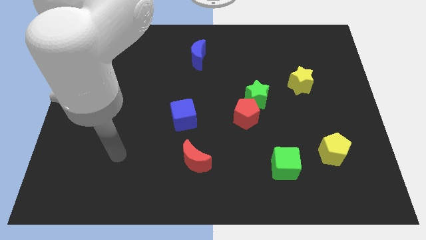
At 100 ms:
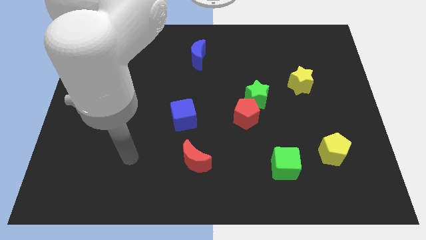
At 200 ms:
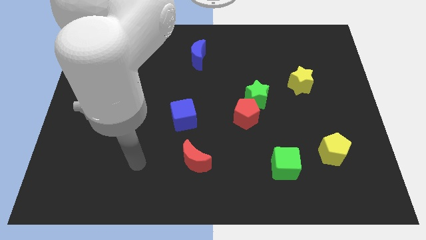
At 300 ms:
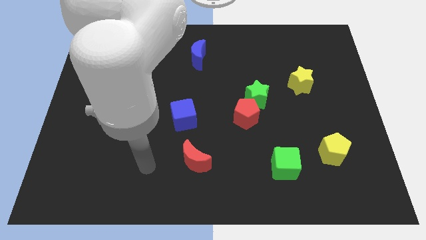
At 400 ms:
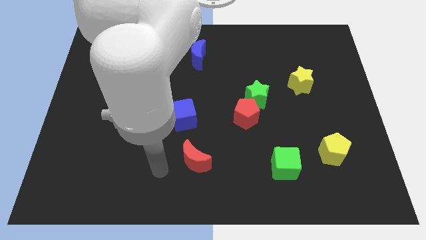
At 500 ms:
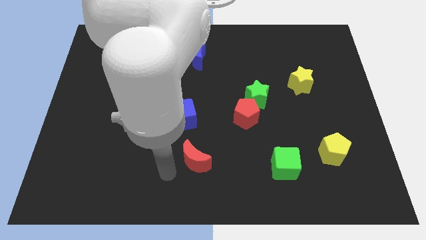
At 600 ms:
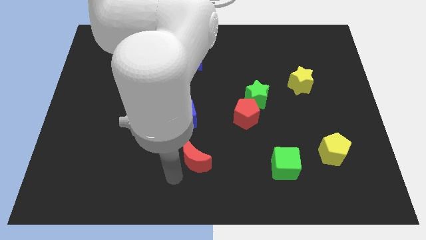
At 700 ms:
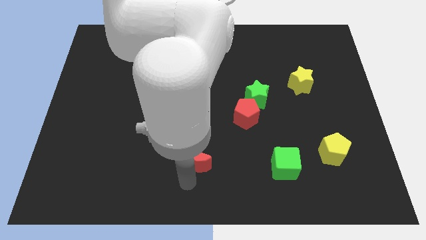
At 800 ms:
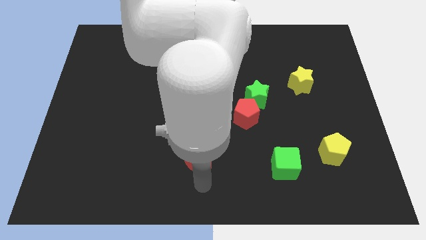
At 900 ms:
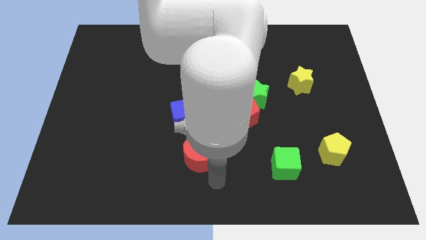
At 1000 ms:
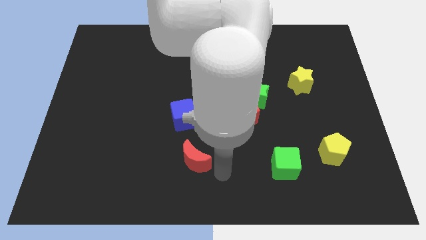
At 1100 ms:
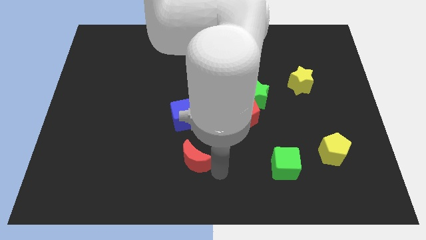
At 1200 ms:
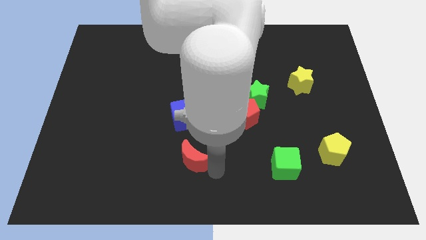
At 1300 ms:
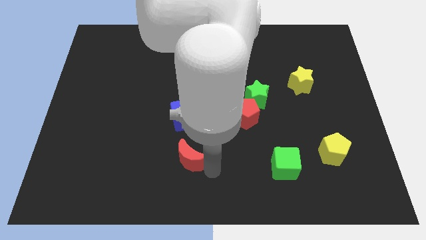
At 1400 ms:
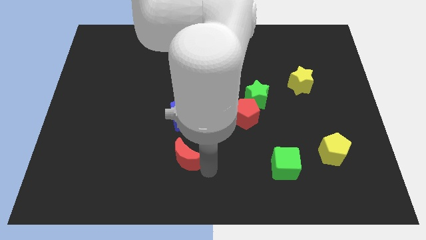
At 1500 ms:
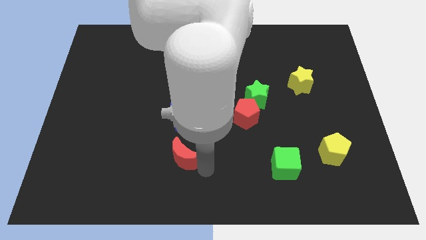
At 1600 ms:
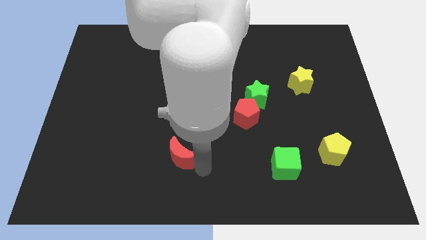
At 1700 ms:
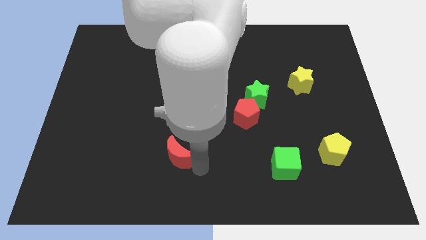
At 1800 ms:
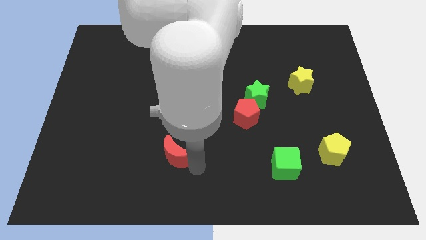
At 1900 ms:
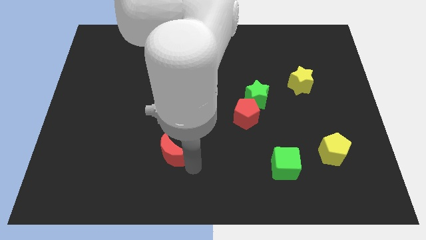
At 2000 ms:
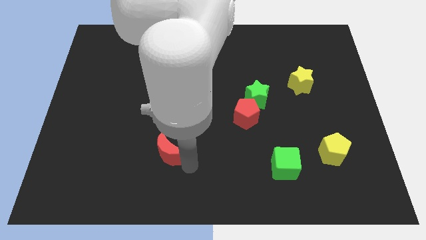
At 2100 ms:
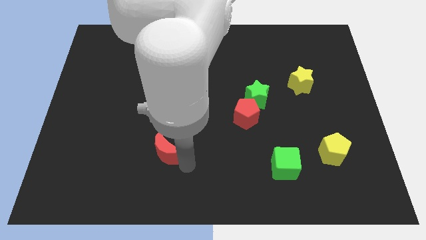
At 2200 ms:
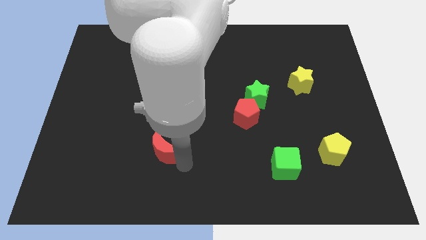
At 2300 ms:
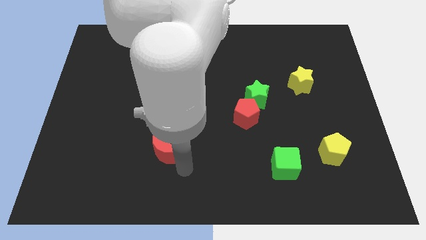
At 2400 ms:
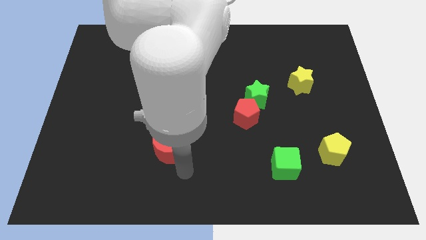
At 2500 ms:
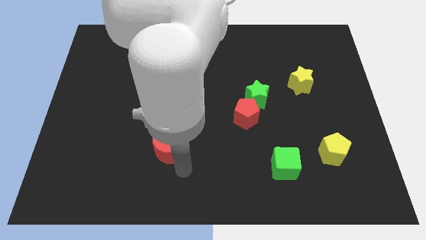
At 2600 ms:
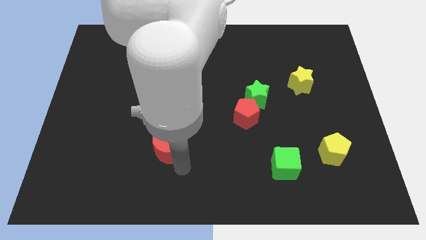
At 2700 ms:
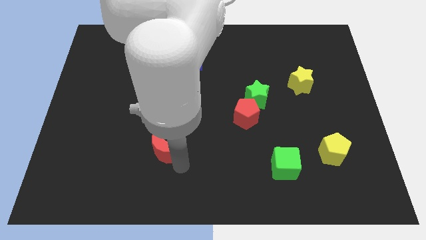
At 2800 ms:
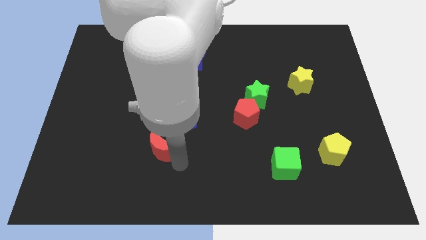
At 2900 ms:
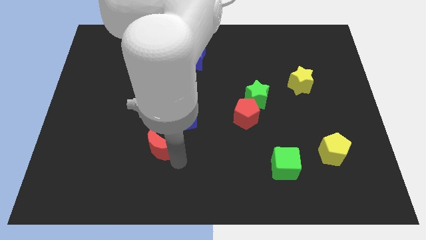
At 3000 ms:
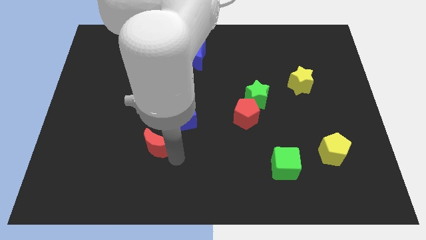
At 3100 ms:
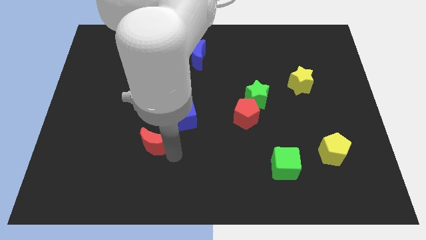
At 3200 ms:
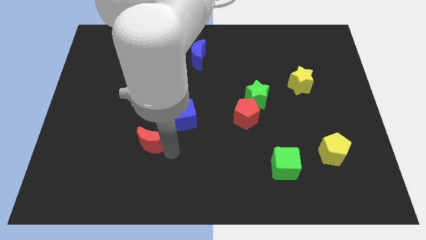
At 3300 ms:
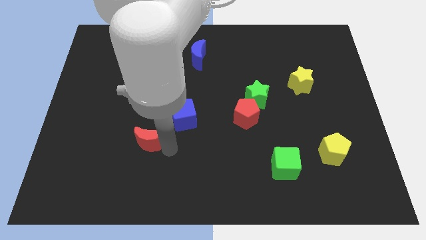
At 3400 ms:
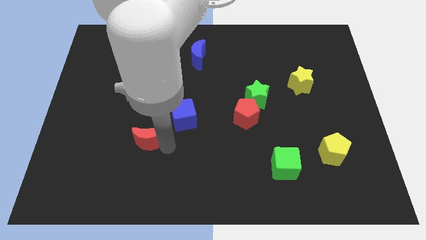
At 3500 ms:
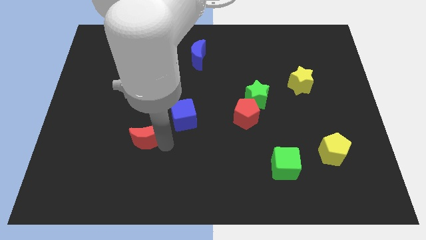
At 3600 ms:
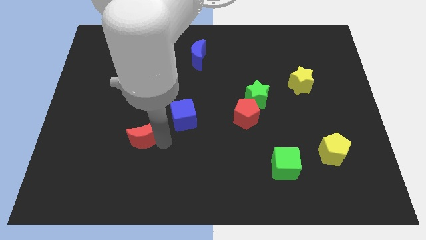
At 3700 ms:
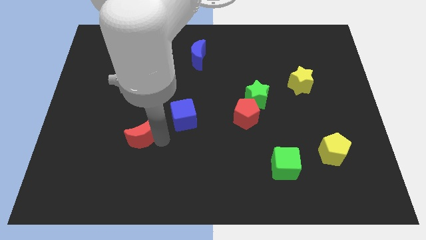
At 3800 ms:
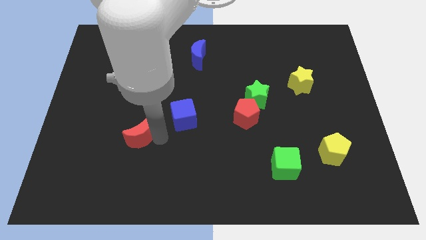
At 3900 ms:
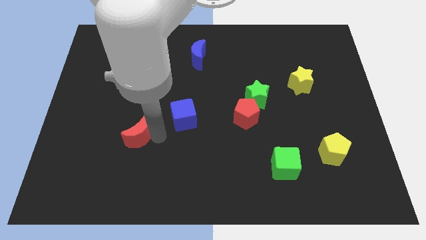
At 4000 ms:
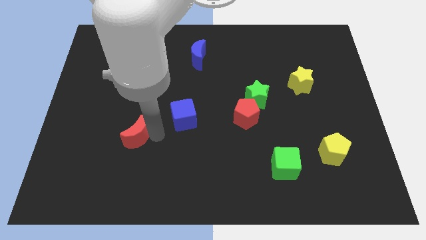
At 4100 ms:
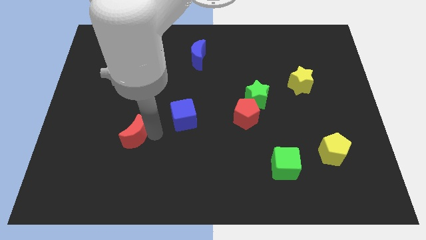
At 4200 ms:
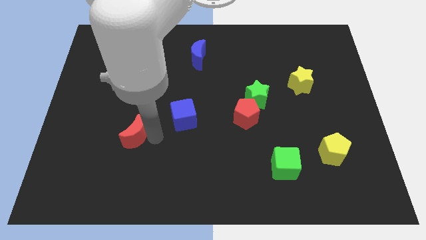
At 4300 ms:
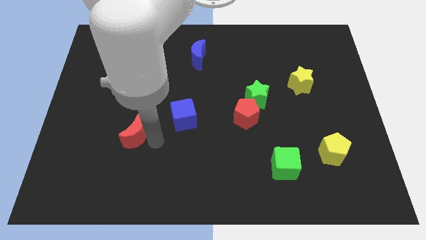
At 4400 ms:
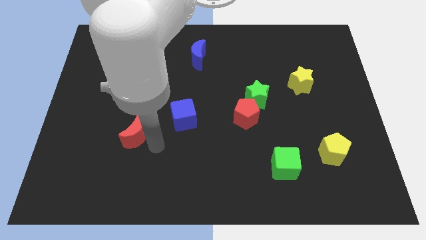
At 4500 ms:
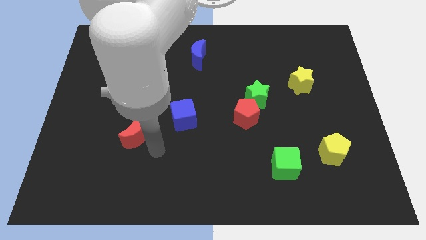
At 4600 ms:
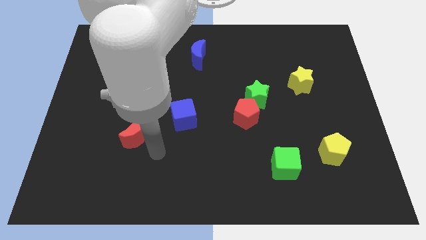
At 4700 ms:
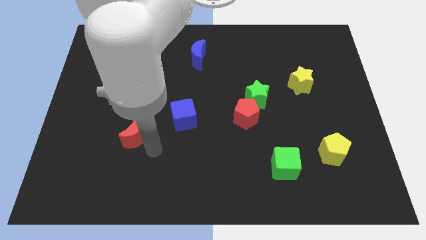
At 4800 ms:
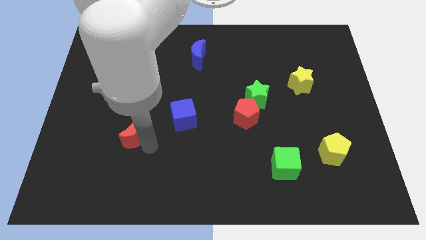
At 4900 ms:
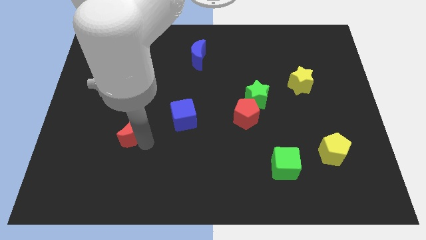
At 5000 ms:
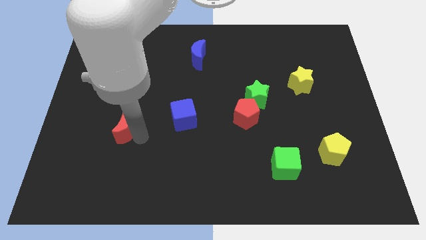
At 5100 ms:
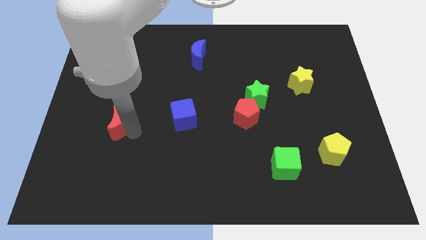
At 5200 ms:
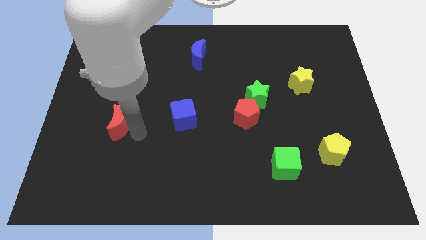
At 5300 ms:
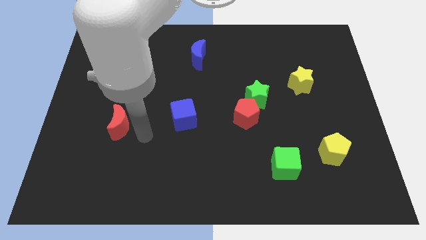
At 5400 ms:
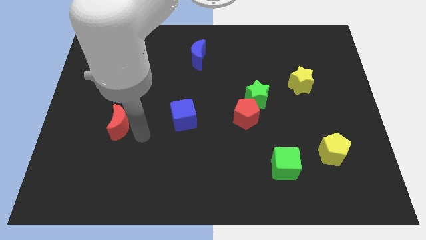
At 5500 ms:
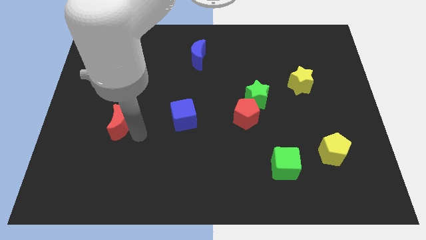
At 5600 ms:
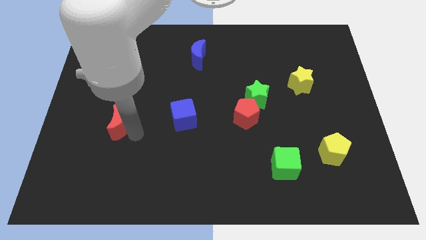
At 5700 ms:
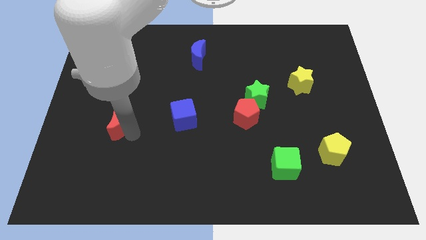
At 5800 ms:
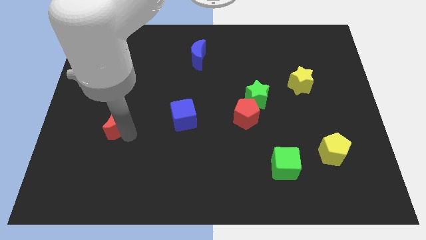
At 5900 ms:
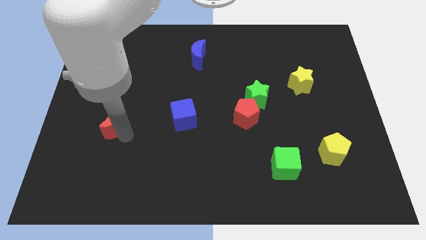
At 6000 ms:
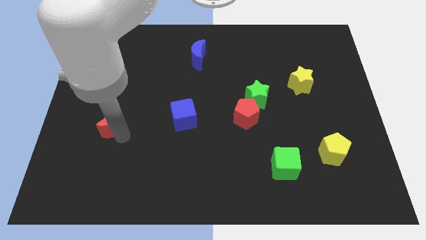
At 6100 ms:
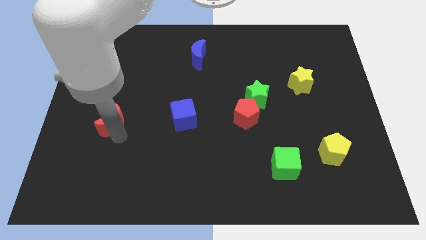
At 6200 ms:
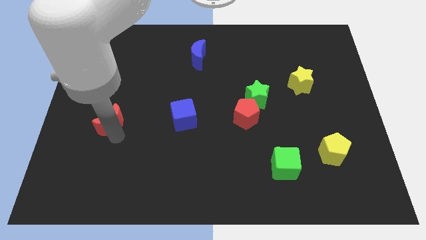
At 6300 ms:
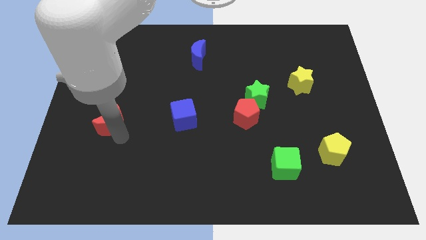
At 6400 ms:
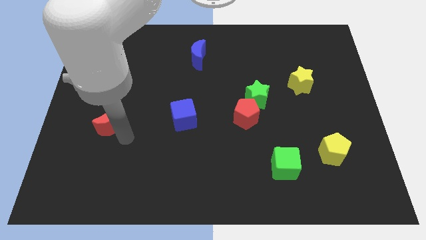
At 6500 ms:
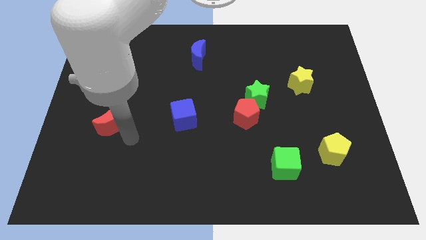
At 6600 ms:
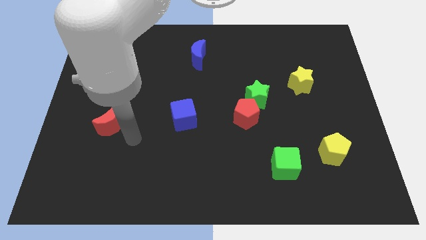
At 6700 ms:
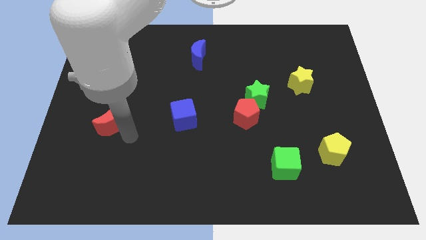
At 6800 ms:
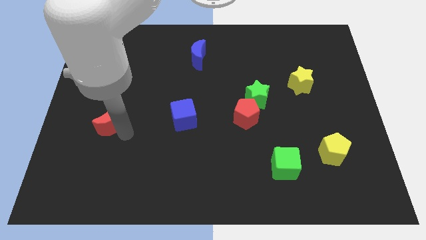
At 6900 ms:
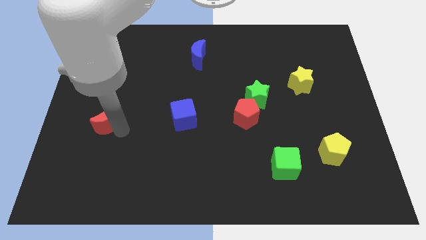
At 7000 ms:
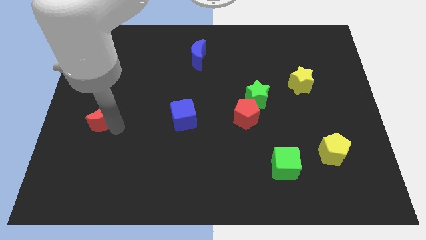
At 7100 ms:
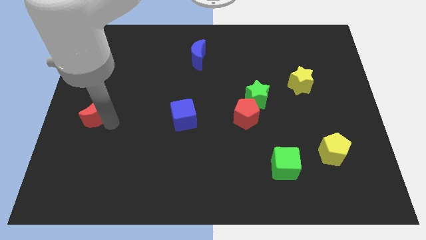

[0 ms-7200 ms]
push the red moon to the left side
